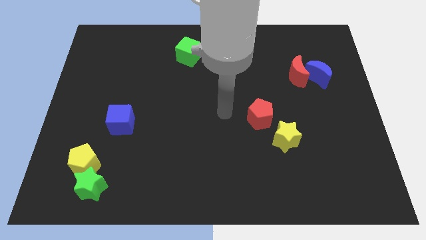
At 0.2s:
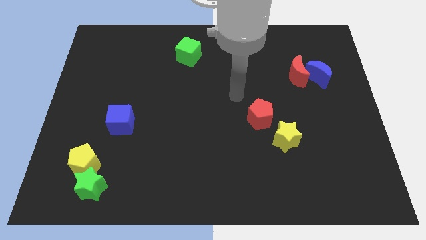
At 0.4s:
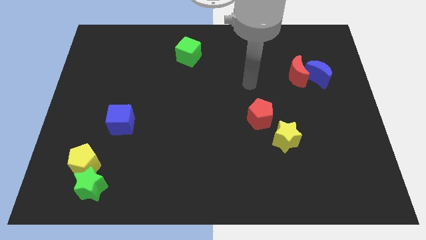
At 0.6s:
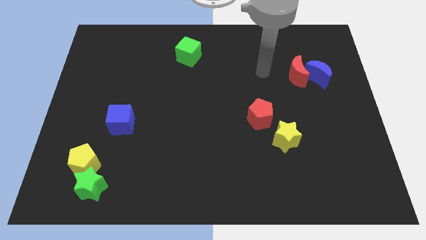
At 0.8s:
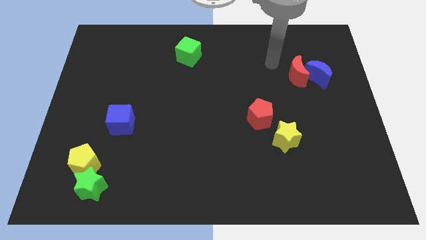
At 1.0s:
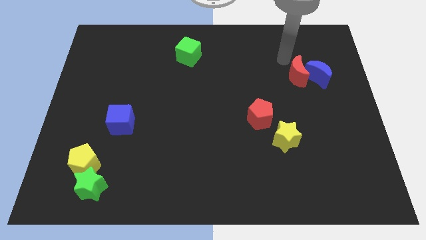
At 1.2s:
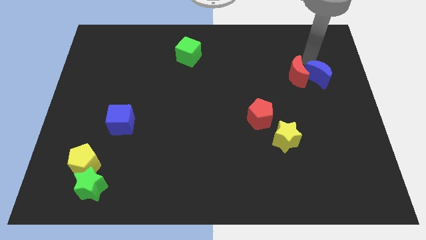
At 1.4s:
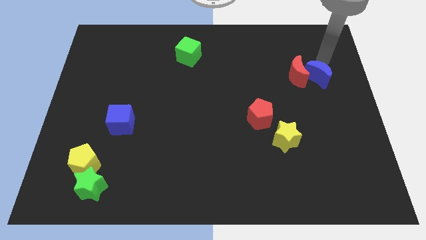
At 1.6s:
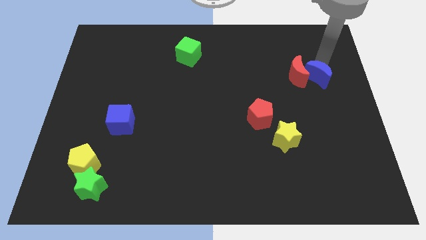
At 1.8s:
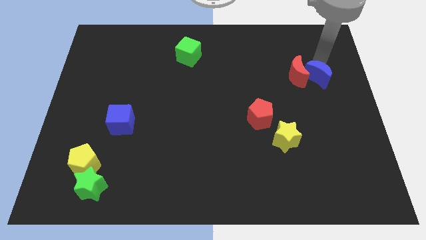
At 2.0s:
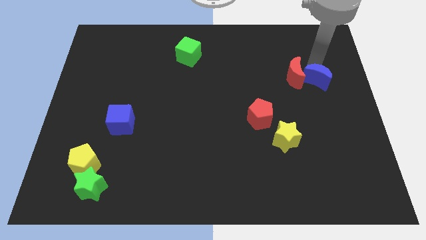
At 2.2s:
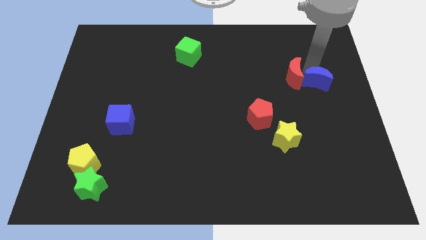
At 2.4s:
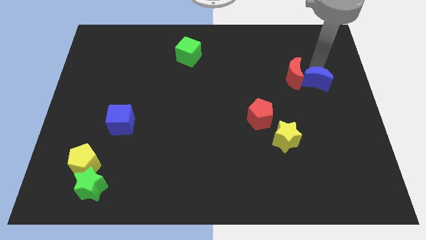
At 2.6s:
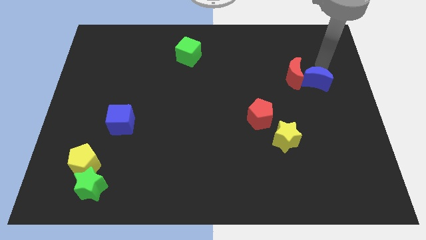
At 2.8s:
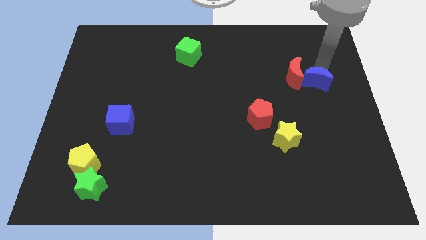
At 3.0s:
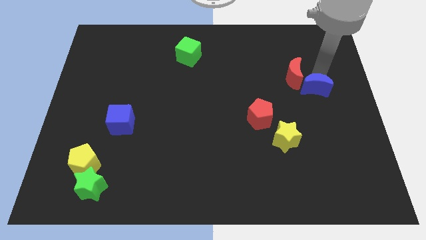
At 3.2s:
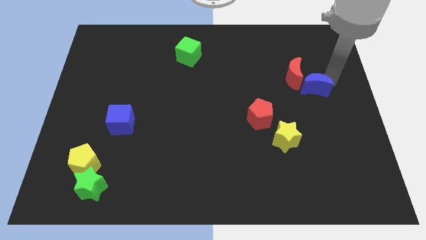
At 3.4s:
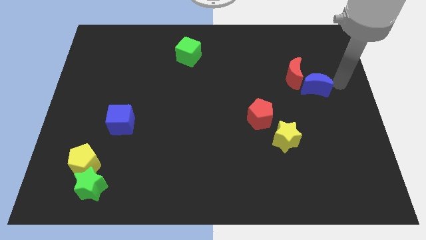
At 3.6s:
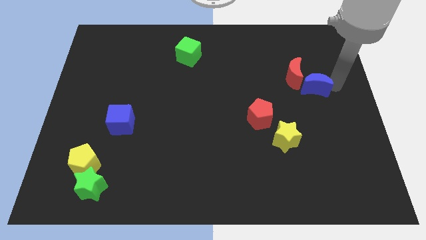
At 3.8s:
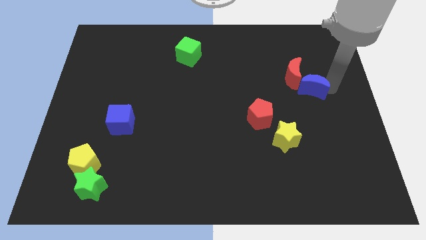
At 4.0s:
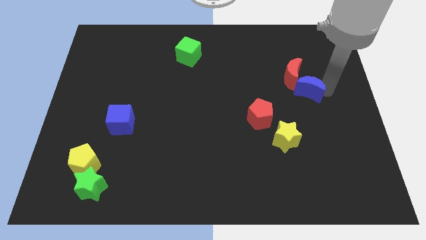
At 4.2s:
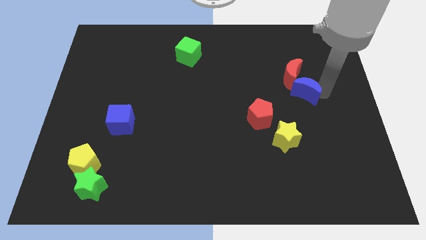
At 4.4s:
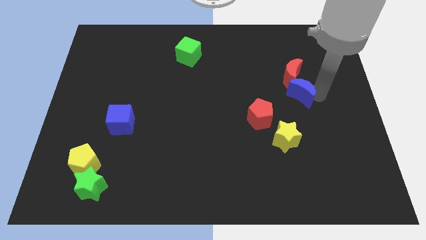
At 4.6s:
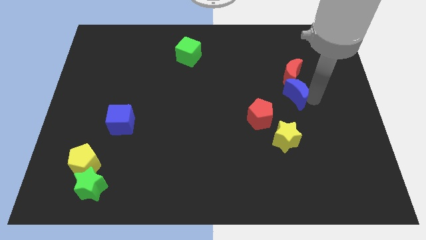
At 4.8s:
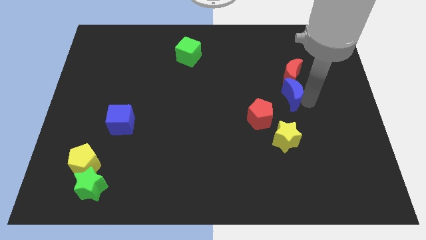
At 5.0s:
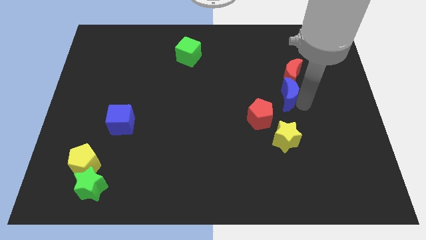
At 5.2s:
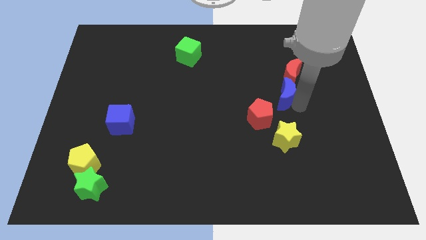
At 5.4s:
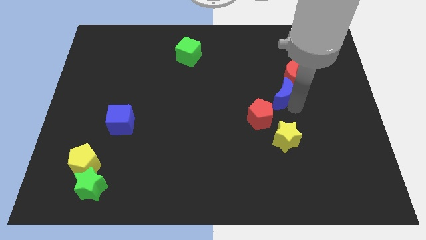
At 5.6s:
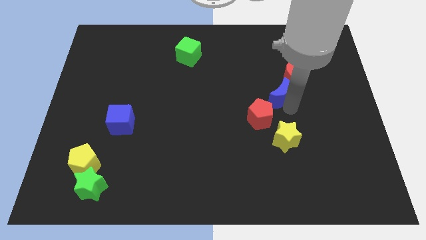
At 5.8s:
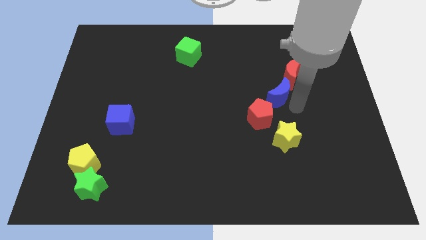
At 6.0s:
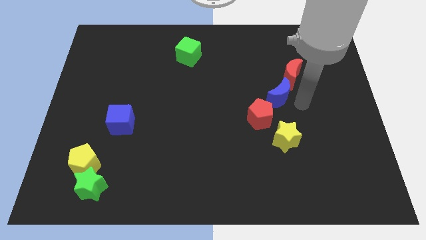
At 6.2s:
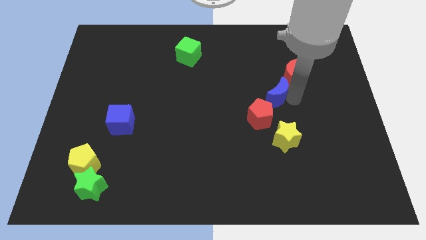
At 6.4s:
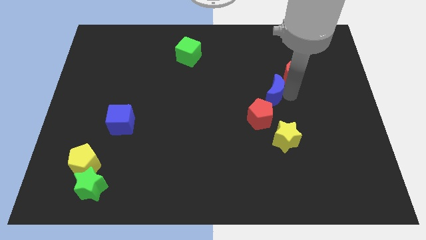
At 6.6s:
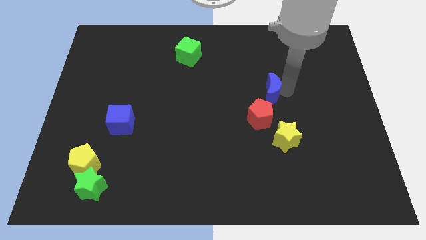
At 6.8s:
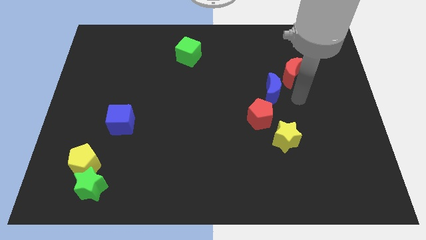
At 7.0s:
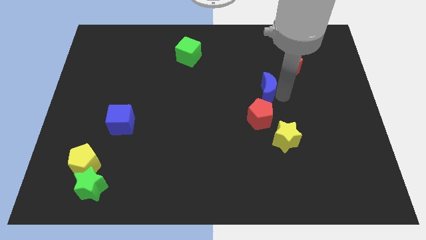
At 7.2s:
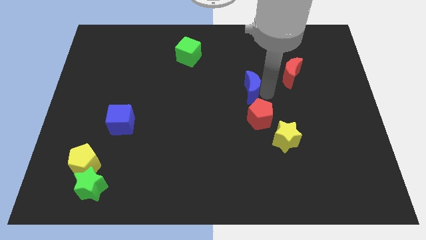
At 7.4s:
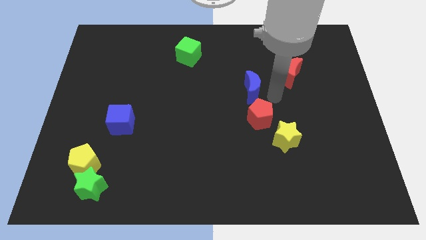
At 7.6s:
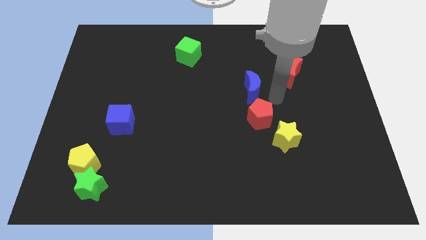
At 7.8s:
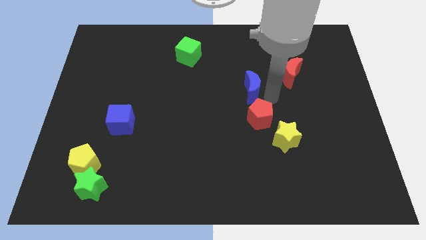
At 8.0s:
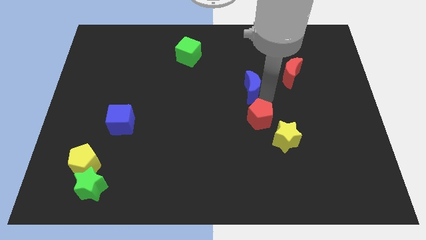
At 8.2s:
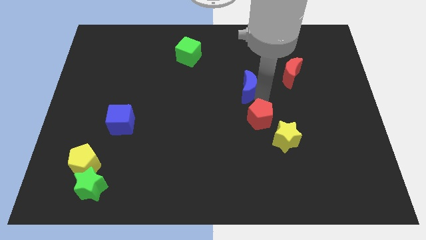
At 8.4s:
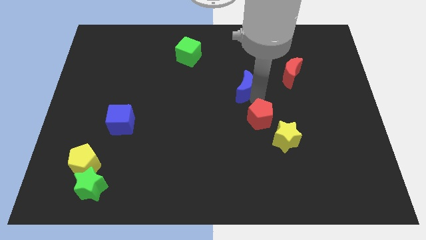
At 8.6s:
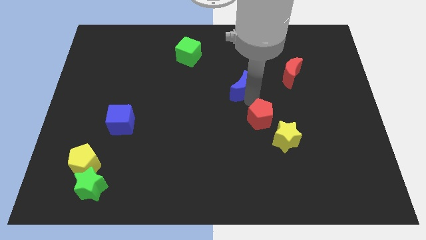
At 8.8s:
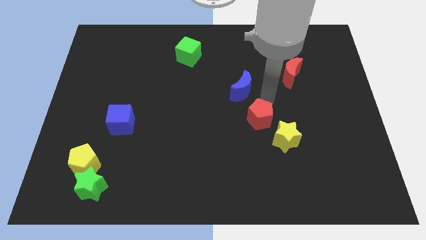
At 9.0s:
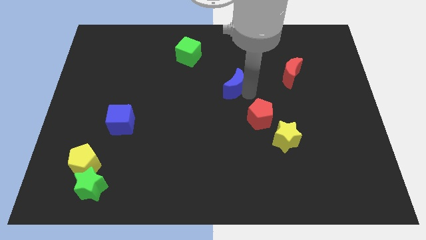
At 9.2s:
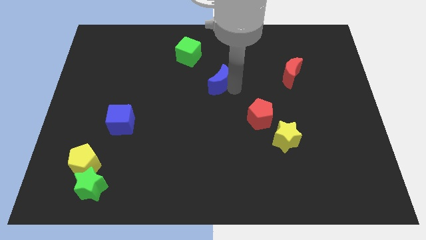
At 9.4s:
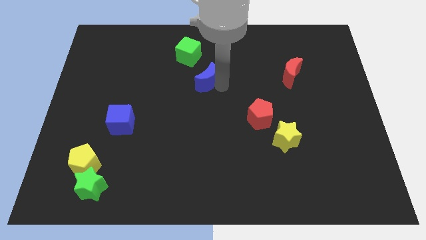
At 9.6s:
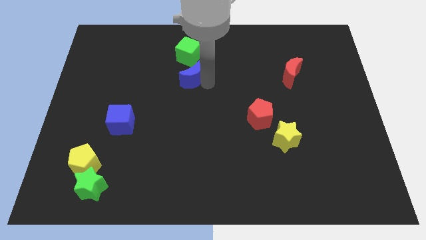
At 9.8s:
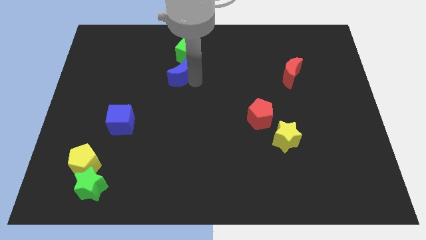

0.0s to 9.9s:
slide the blue moon to the bottom left of the green cube

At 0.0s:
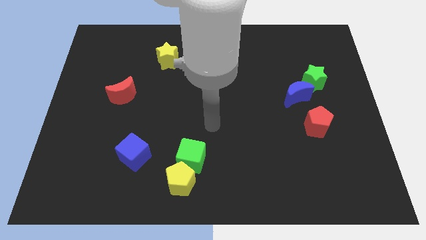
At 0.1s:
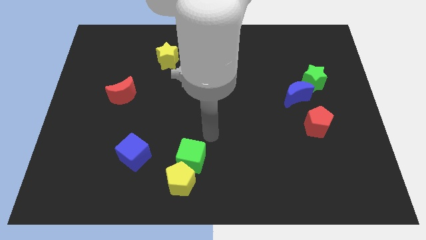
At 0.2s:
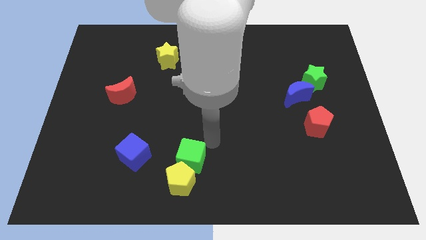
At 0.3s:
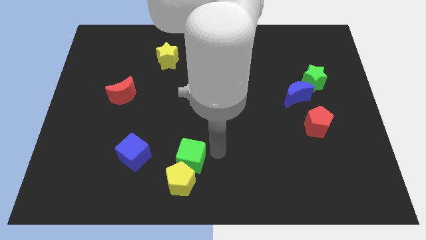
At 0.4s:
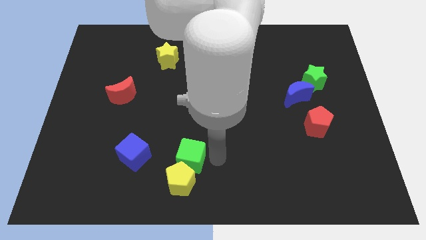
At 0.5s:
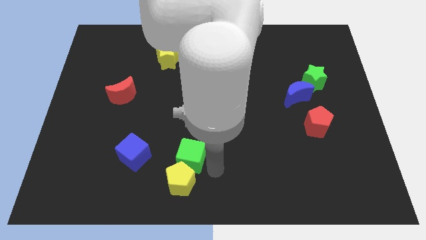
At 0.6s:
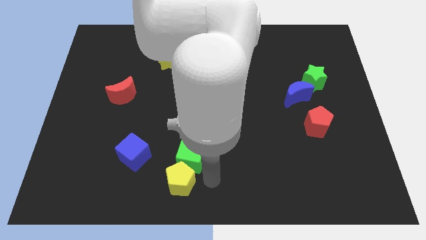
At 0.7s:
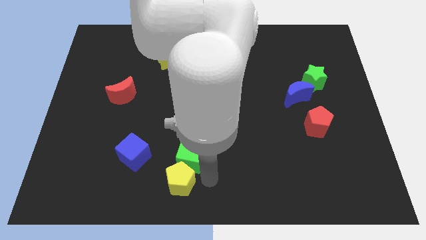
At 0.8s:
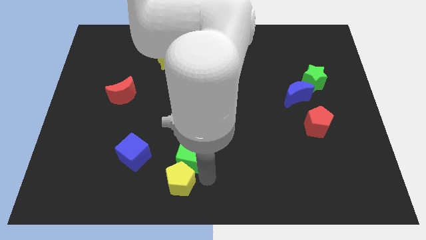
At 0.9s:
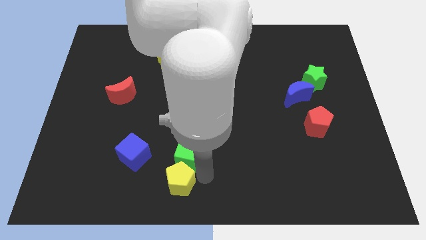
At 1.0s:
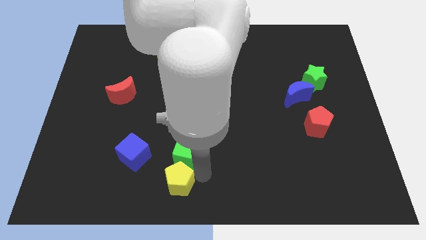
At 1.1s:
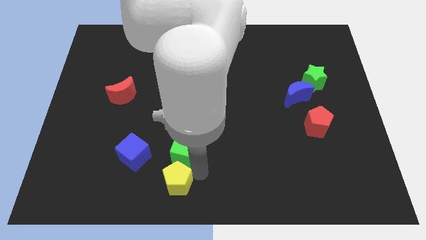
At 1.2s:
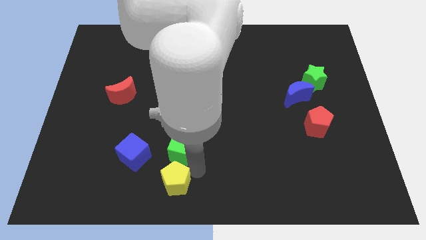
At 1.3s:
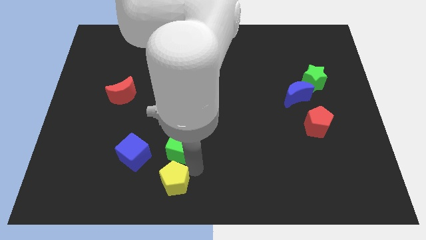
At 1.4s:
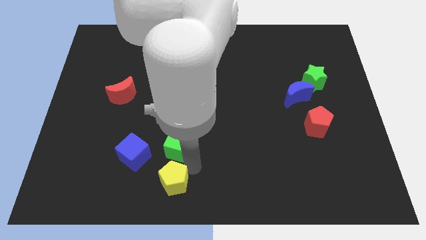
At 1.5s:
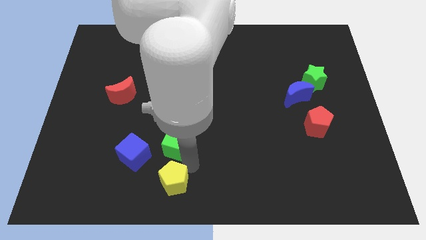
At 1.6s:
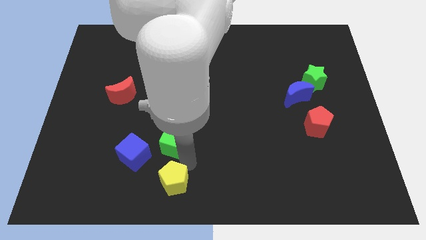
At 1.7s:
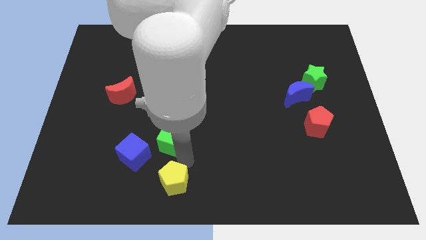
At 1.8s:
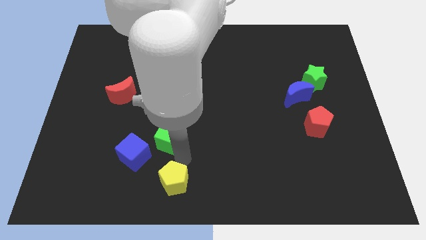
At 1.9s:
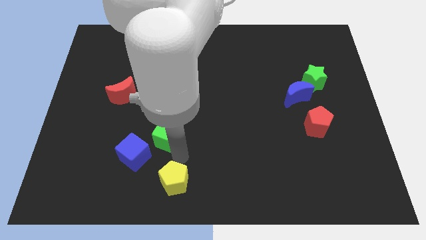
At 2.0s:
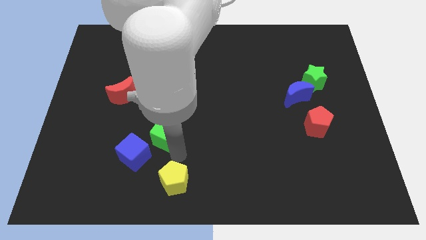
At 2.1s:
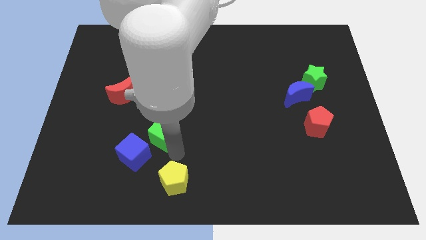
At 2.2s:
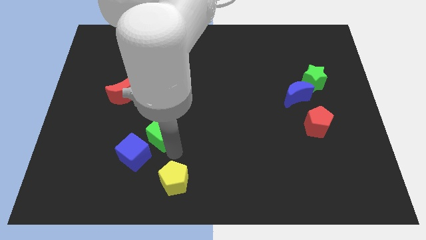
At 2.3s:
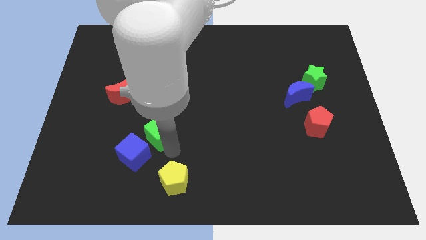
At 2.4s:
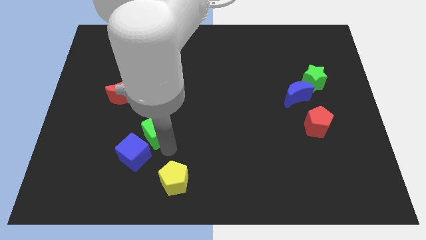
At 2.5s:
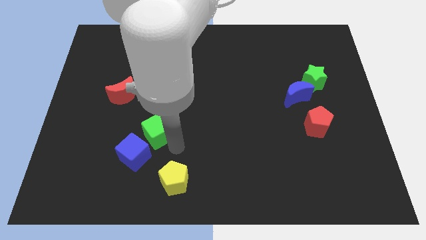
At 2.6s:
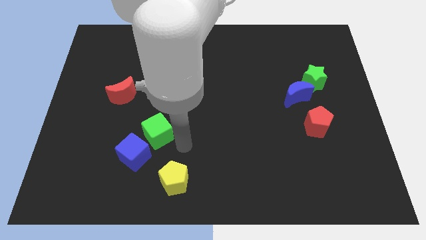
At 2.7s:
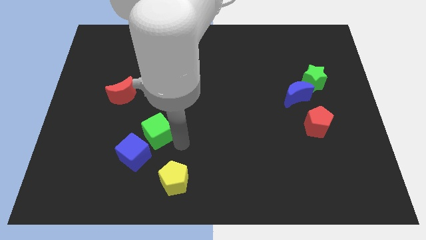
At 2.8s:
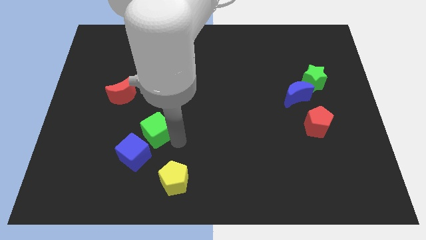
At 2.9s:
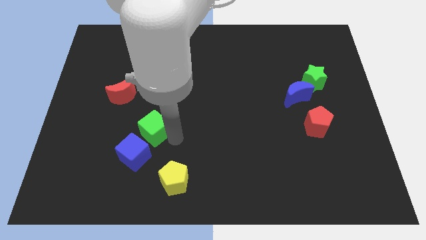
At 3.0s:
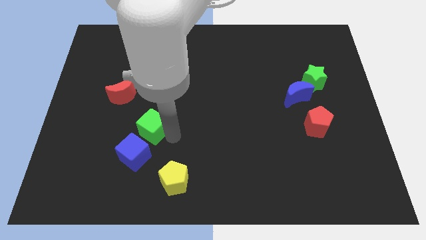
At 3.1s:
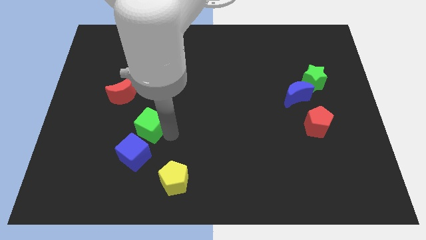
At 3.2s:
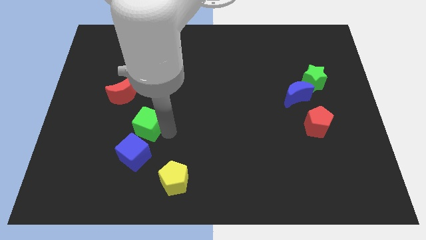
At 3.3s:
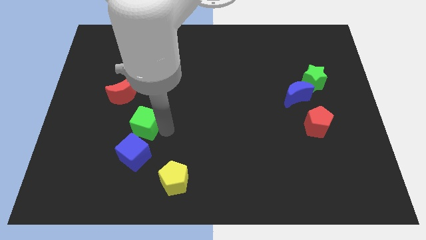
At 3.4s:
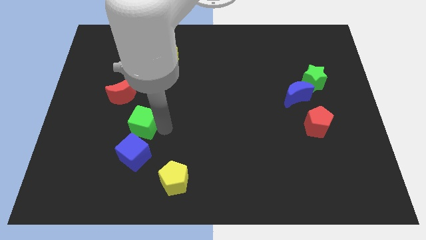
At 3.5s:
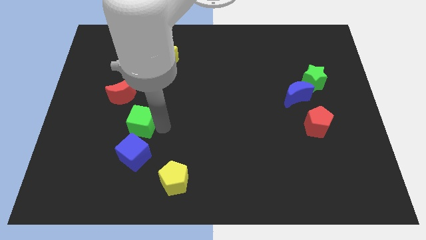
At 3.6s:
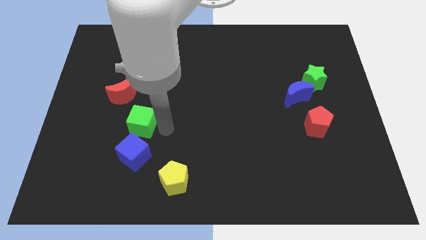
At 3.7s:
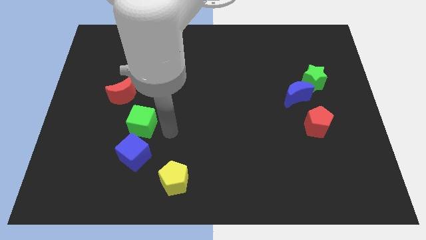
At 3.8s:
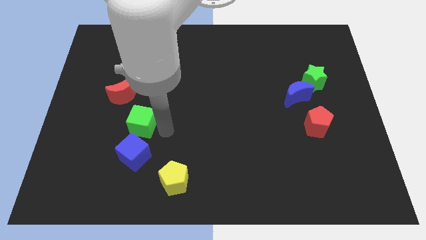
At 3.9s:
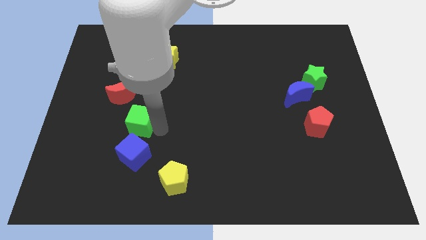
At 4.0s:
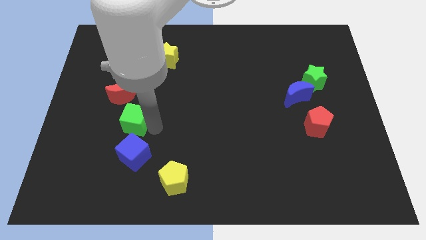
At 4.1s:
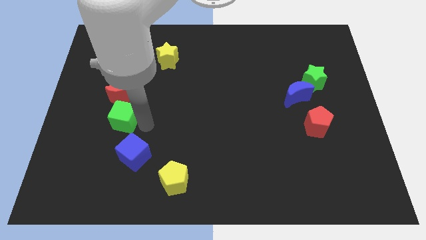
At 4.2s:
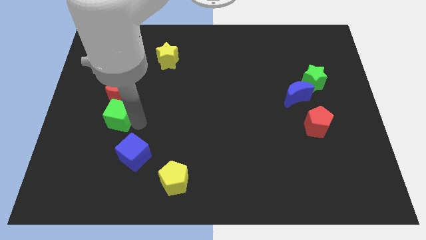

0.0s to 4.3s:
slide the green cube to the bottom left side of the red moon
